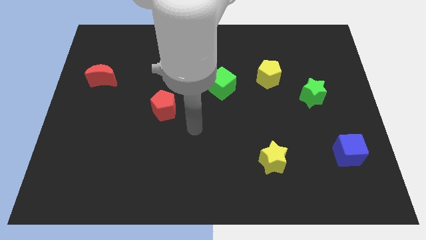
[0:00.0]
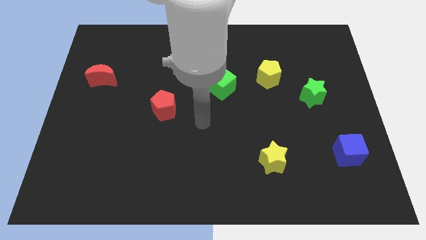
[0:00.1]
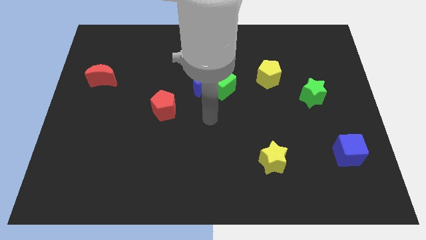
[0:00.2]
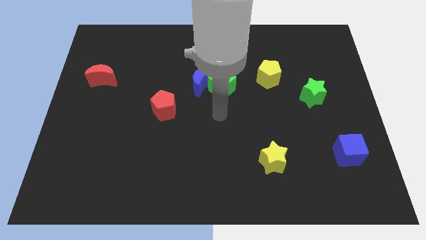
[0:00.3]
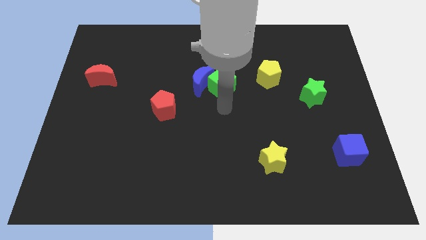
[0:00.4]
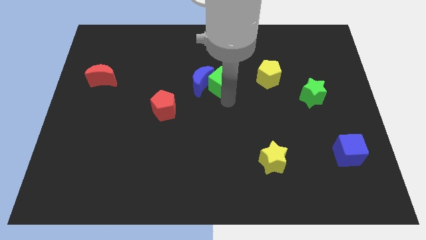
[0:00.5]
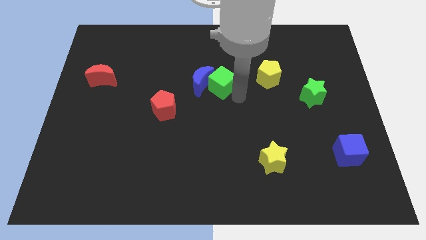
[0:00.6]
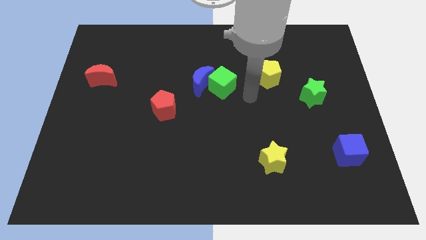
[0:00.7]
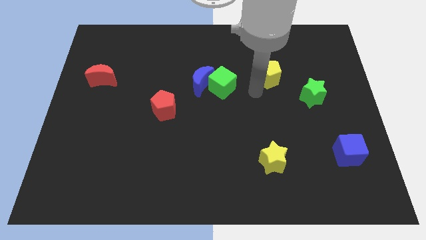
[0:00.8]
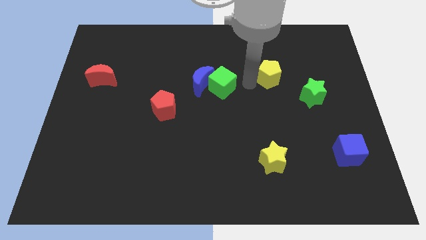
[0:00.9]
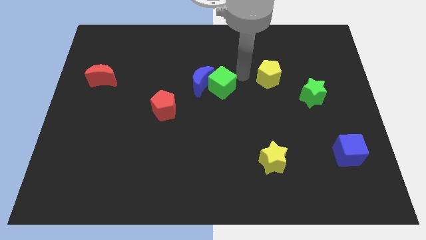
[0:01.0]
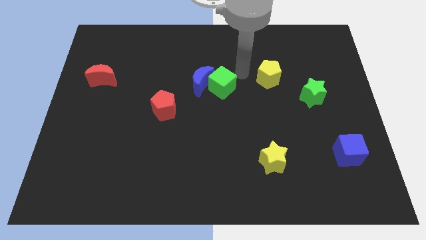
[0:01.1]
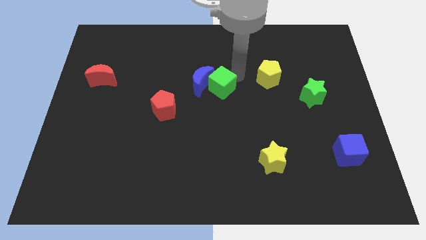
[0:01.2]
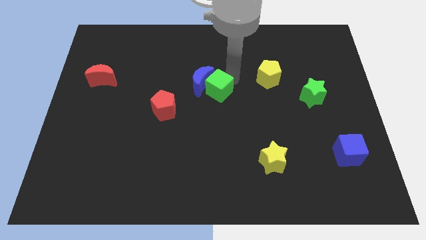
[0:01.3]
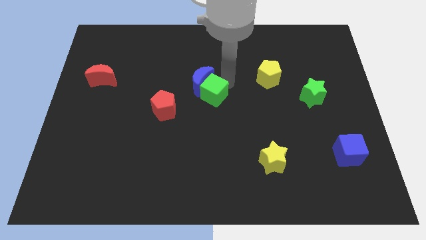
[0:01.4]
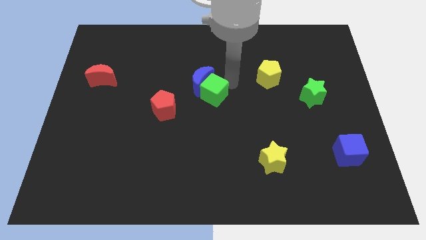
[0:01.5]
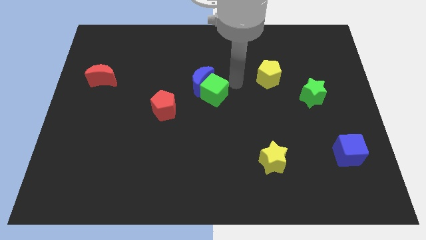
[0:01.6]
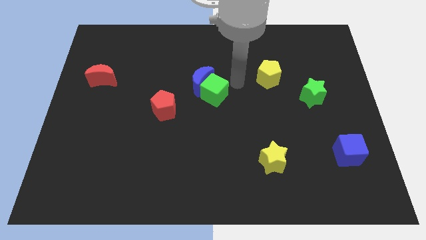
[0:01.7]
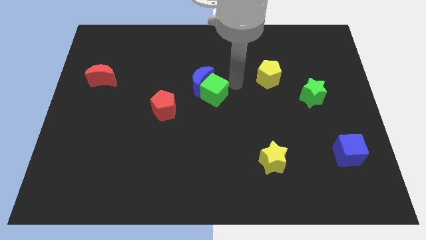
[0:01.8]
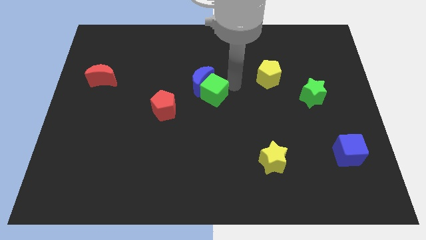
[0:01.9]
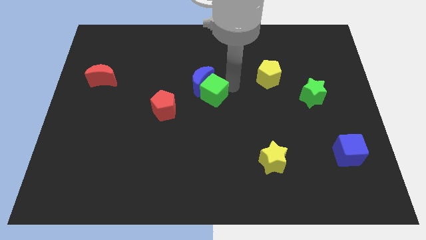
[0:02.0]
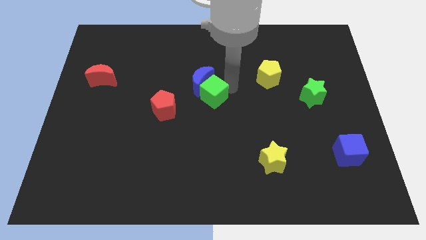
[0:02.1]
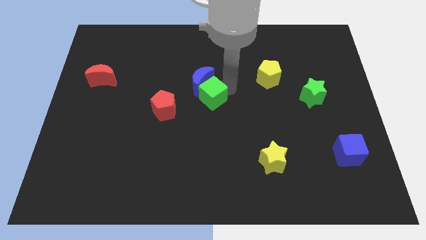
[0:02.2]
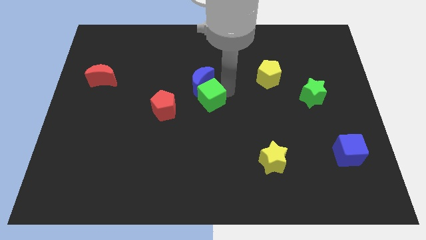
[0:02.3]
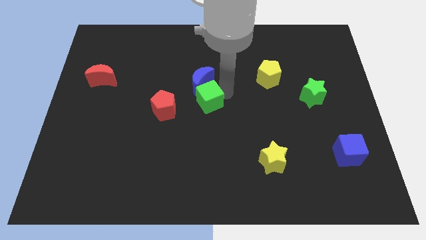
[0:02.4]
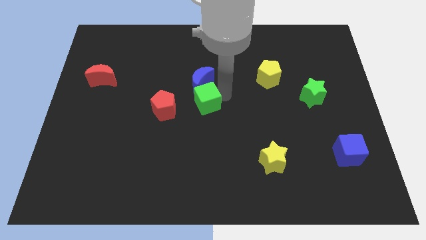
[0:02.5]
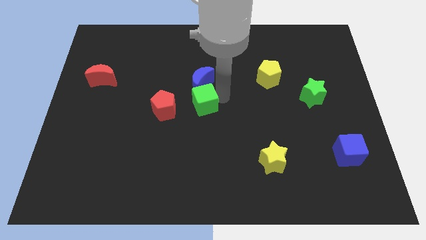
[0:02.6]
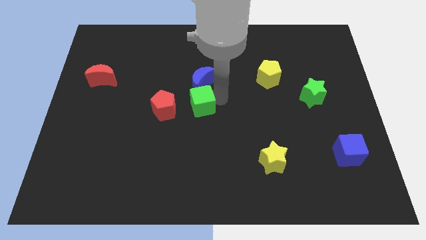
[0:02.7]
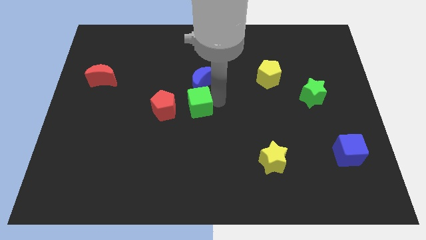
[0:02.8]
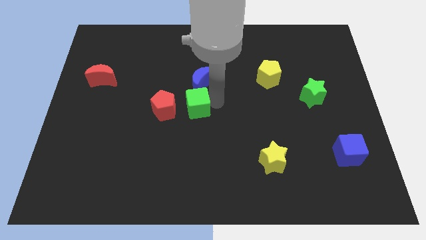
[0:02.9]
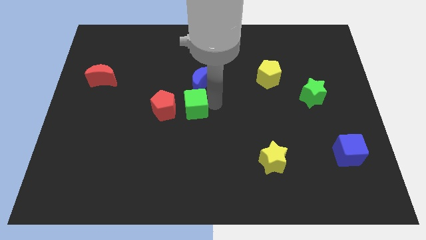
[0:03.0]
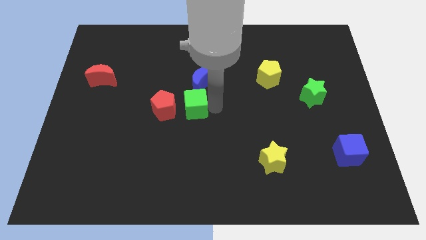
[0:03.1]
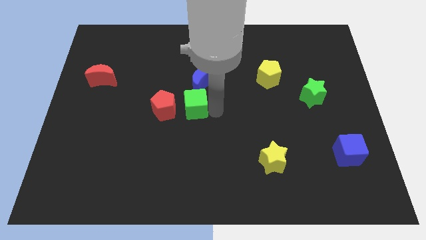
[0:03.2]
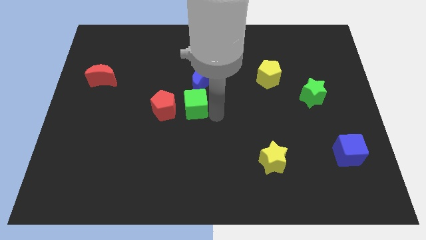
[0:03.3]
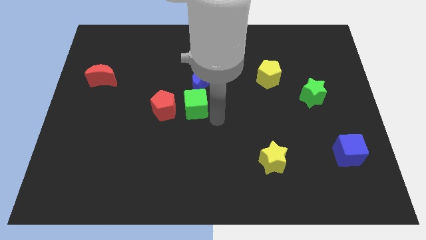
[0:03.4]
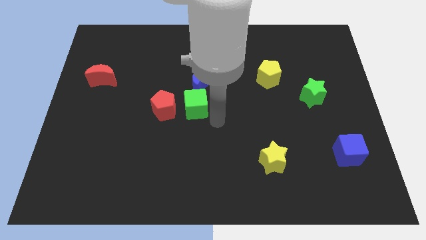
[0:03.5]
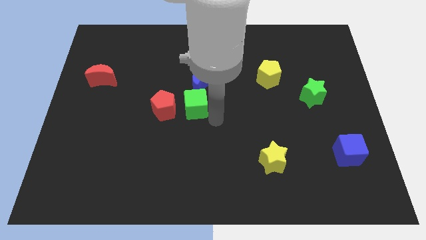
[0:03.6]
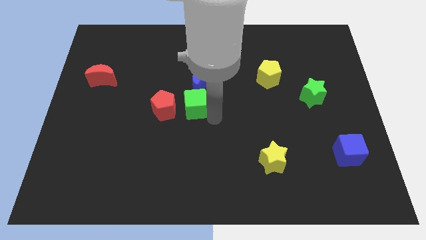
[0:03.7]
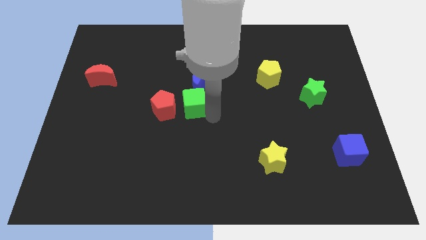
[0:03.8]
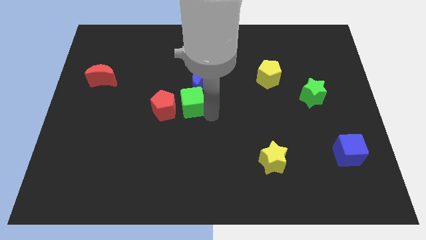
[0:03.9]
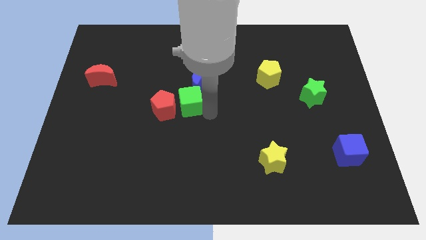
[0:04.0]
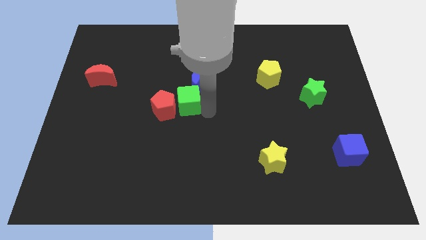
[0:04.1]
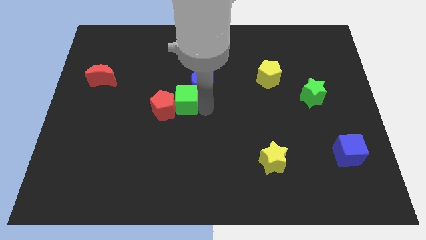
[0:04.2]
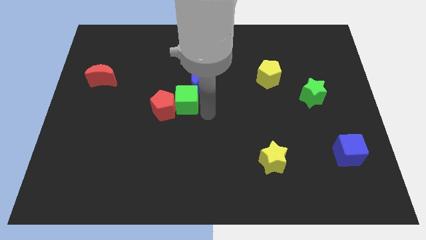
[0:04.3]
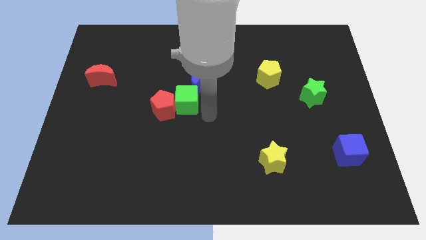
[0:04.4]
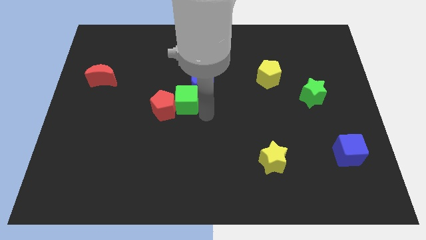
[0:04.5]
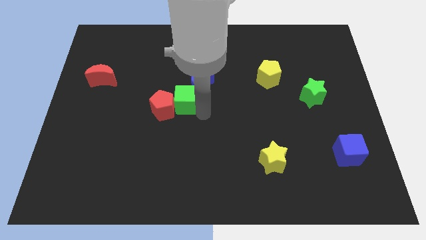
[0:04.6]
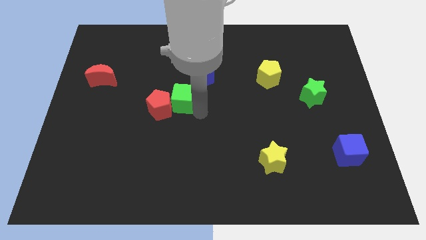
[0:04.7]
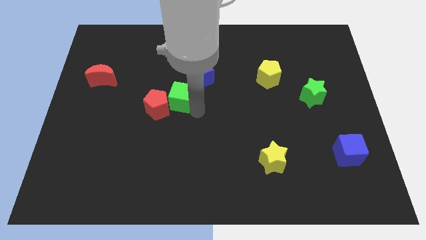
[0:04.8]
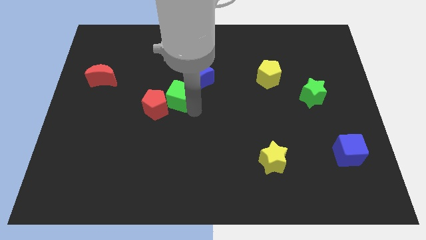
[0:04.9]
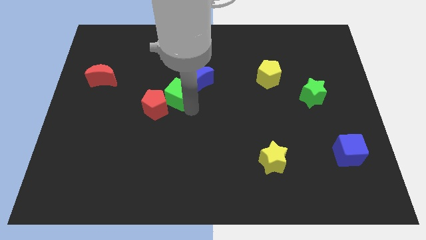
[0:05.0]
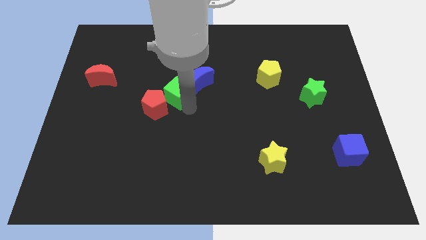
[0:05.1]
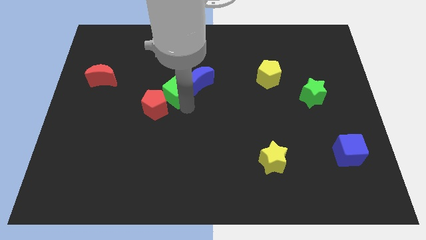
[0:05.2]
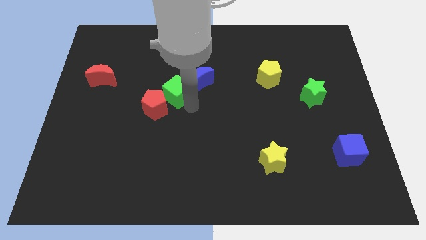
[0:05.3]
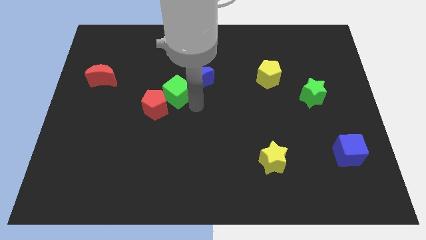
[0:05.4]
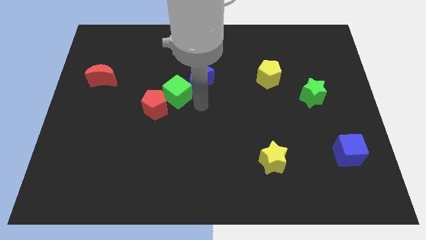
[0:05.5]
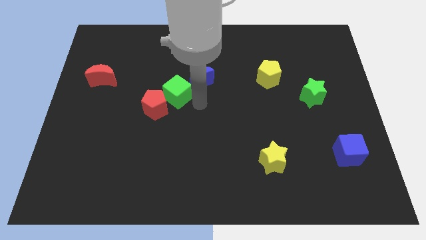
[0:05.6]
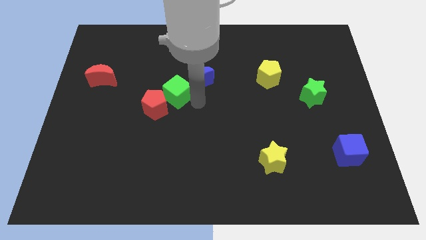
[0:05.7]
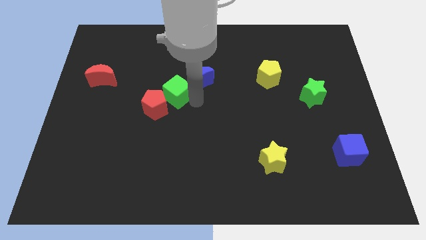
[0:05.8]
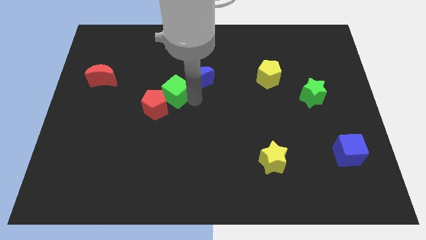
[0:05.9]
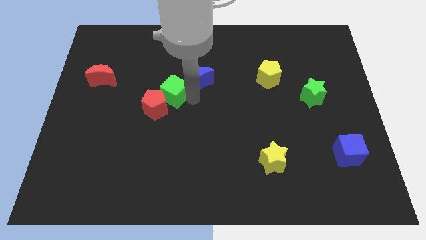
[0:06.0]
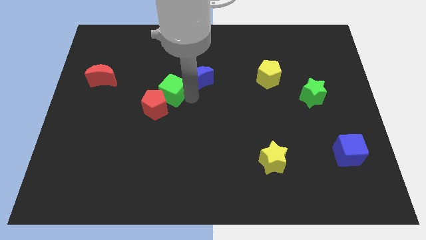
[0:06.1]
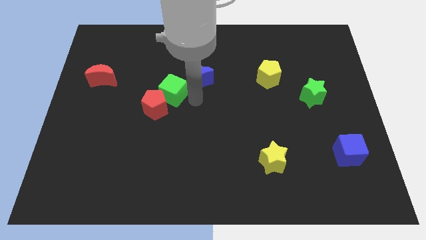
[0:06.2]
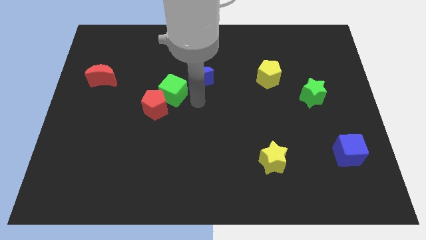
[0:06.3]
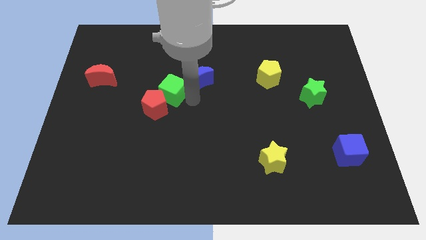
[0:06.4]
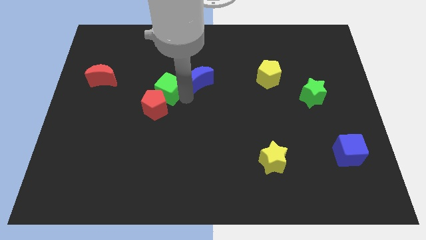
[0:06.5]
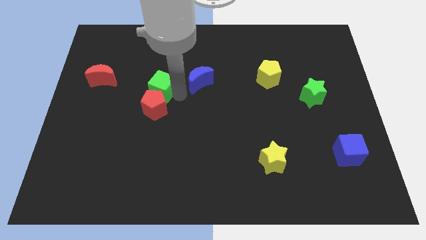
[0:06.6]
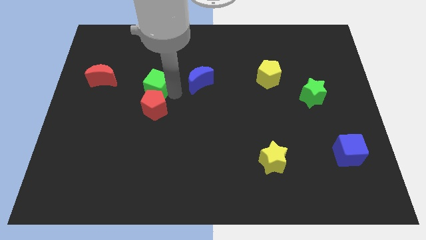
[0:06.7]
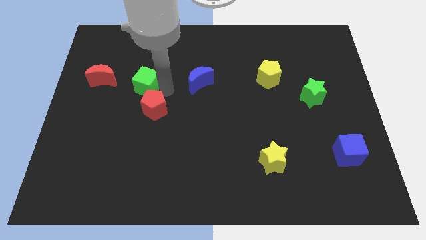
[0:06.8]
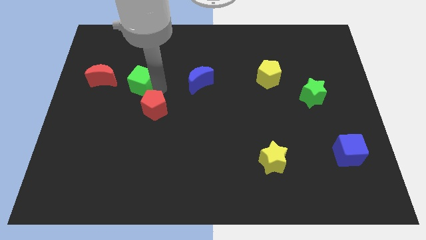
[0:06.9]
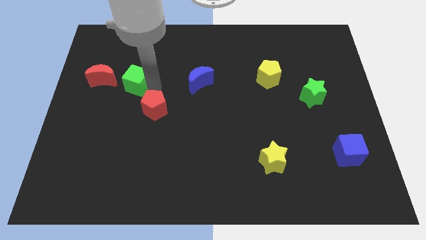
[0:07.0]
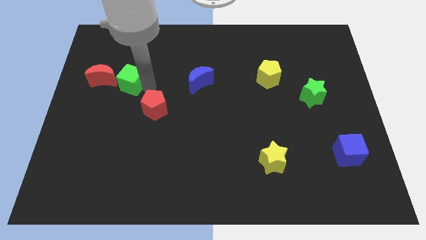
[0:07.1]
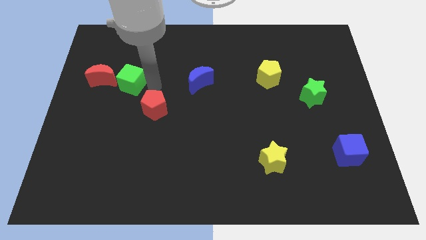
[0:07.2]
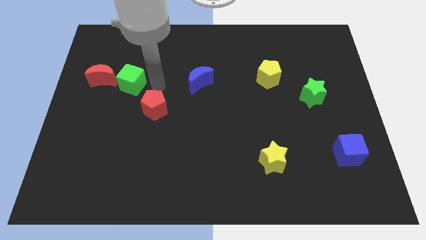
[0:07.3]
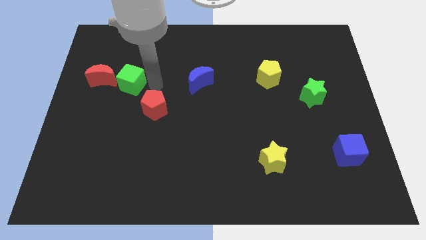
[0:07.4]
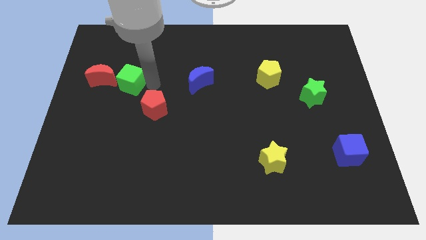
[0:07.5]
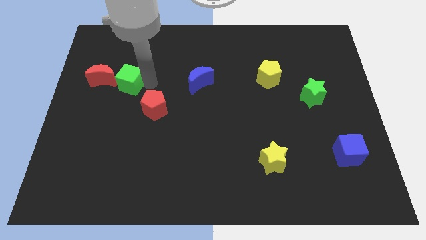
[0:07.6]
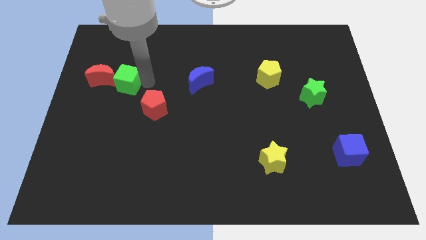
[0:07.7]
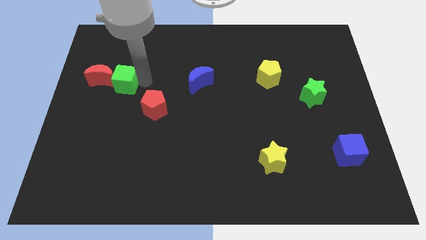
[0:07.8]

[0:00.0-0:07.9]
slide the green cube to the red moon
